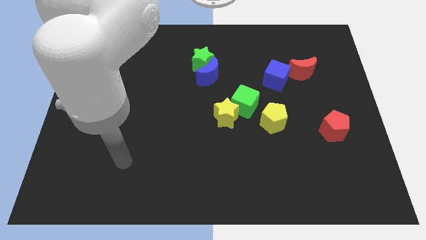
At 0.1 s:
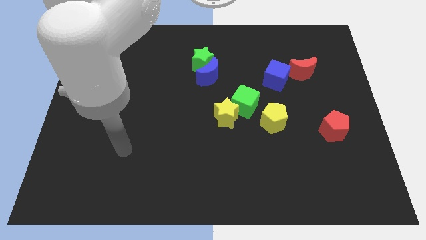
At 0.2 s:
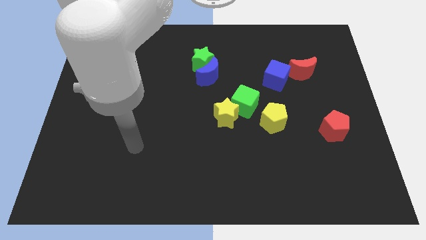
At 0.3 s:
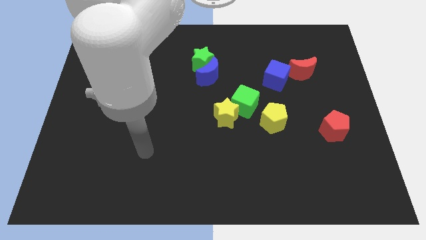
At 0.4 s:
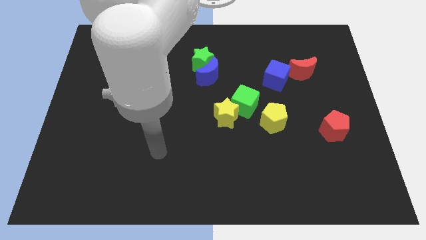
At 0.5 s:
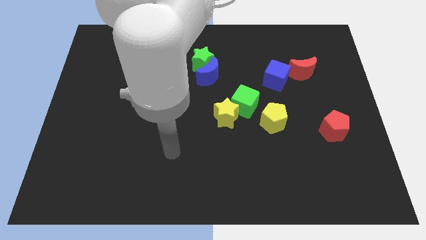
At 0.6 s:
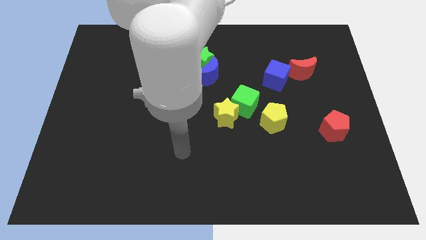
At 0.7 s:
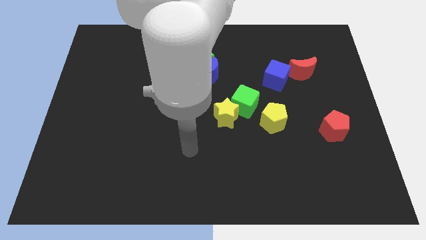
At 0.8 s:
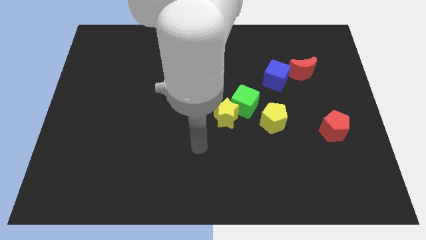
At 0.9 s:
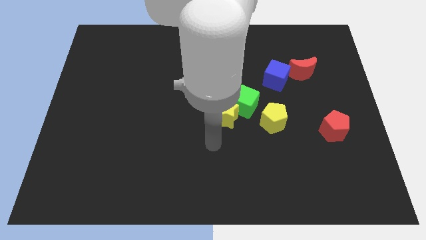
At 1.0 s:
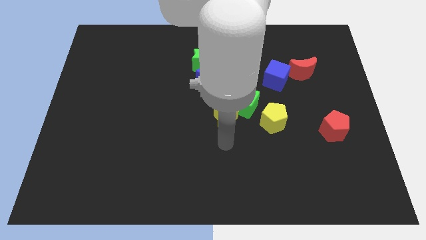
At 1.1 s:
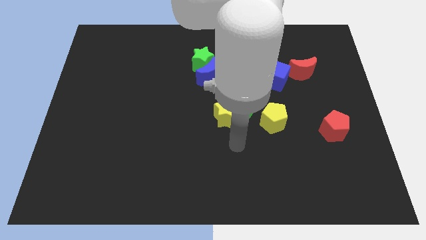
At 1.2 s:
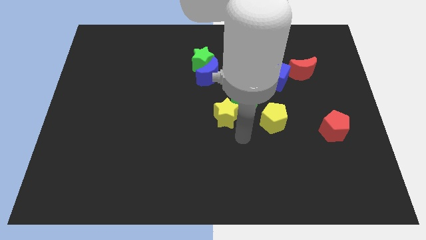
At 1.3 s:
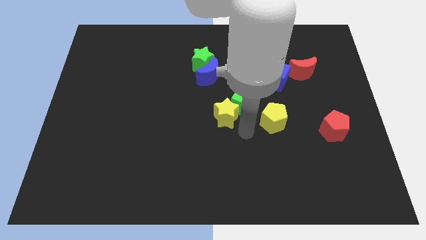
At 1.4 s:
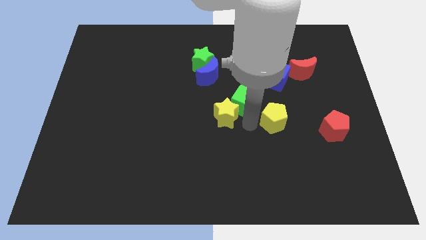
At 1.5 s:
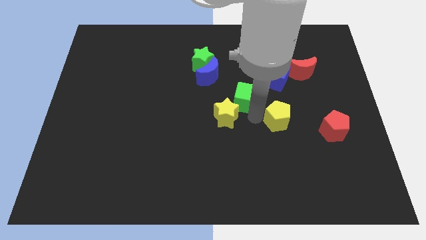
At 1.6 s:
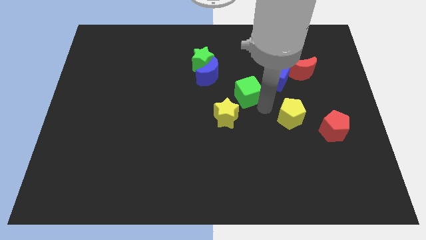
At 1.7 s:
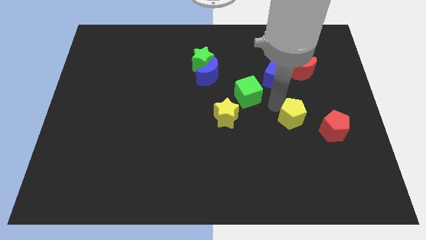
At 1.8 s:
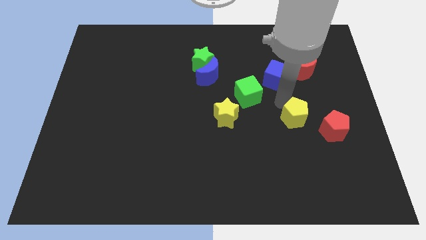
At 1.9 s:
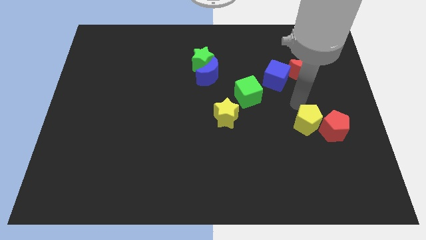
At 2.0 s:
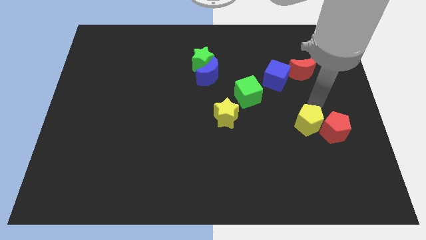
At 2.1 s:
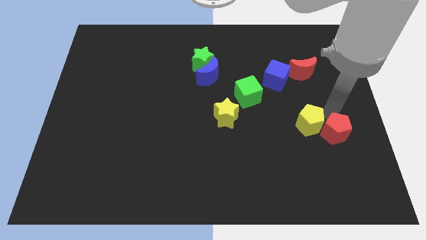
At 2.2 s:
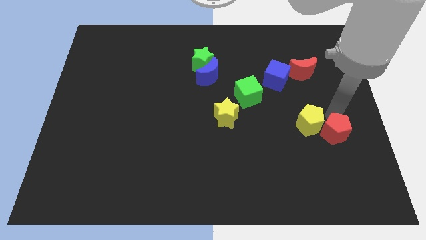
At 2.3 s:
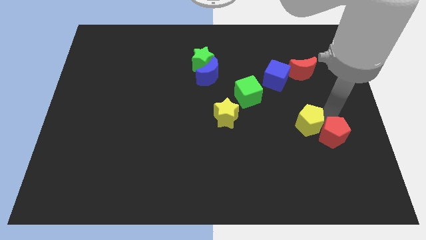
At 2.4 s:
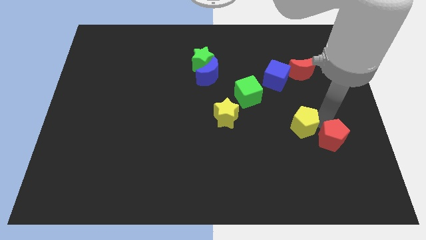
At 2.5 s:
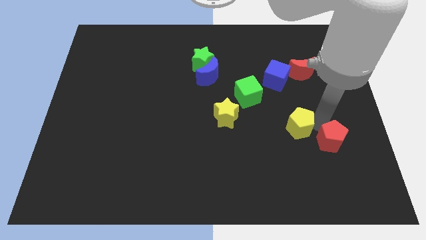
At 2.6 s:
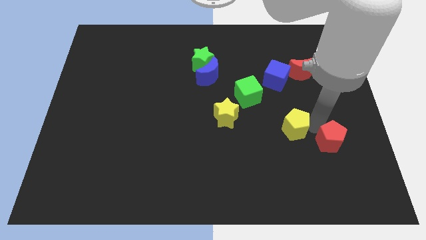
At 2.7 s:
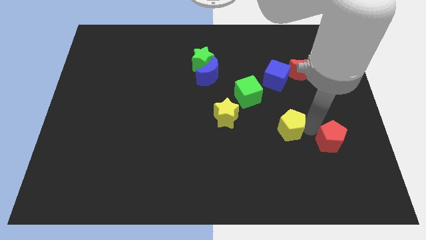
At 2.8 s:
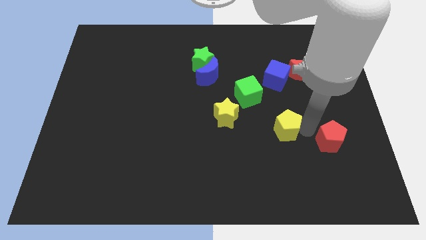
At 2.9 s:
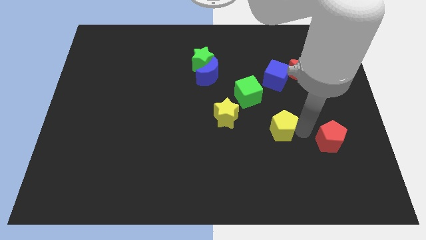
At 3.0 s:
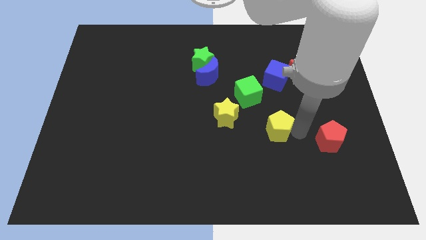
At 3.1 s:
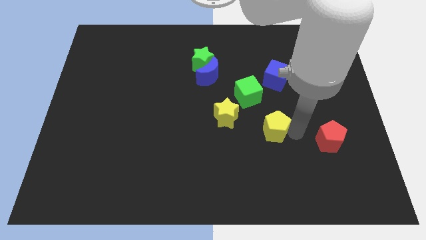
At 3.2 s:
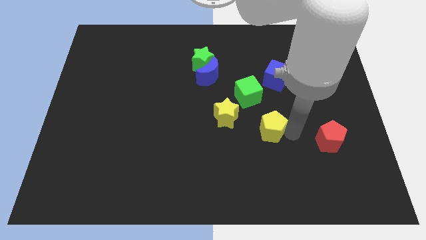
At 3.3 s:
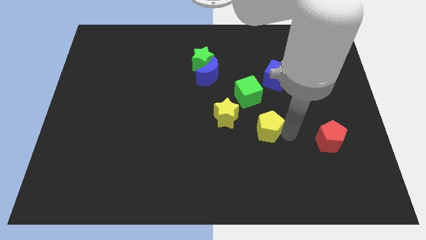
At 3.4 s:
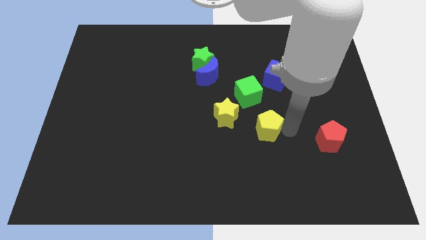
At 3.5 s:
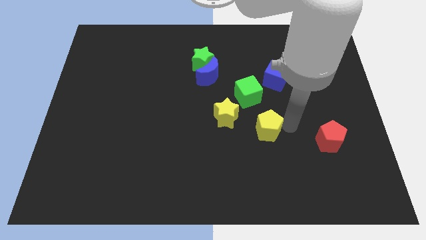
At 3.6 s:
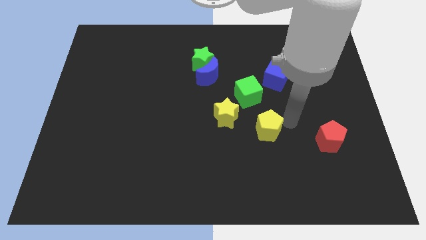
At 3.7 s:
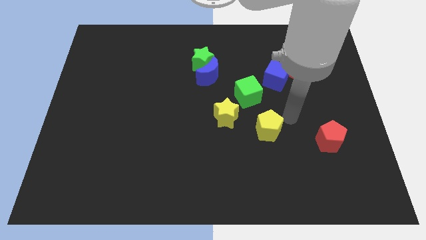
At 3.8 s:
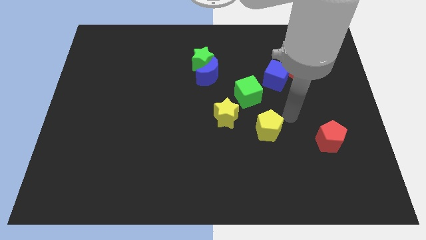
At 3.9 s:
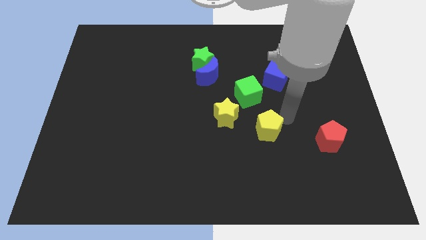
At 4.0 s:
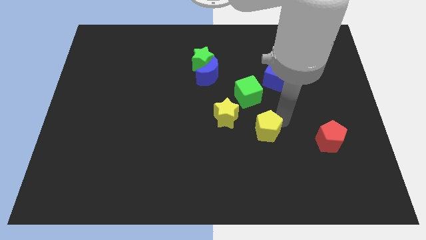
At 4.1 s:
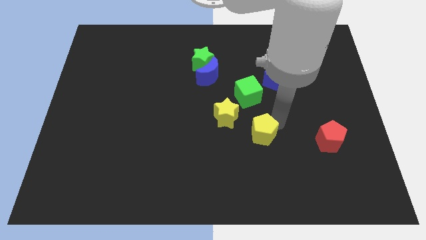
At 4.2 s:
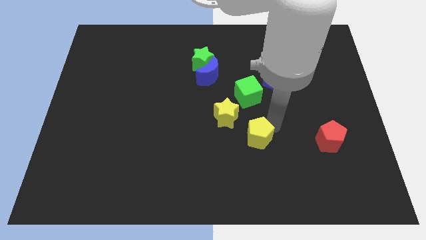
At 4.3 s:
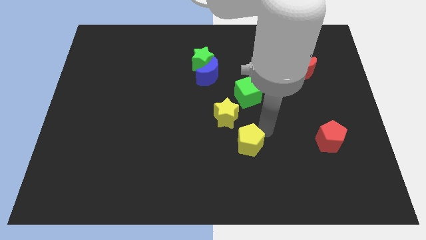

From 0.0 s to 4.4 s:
slightly push the yellow pentagon downwards and to the left

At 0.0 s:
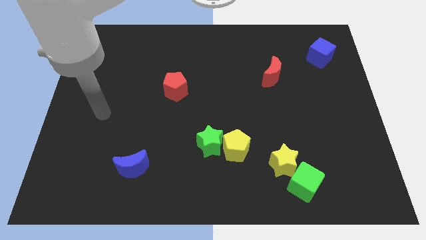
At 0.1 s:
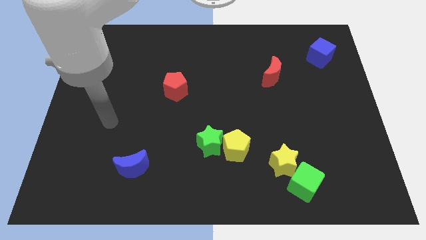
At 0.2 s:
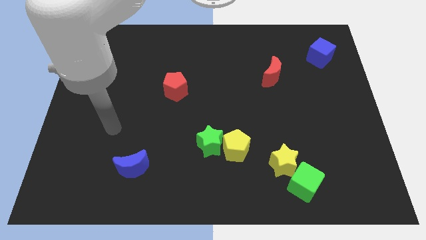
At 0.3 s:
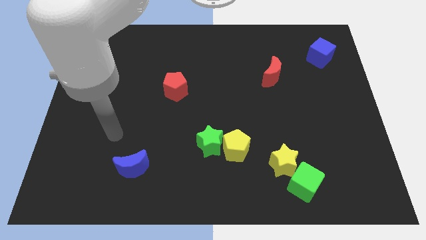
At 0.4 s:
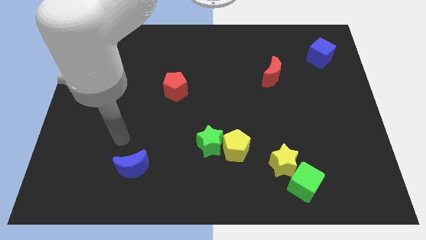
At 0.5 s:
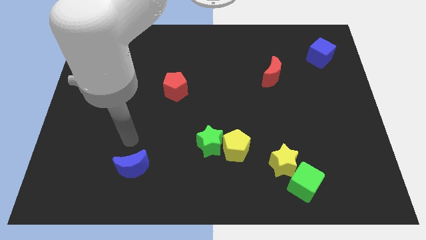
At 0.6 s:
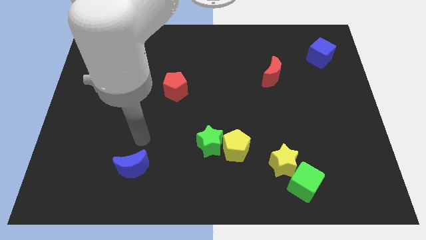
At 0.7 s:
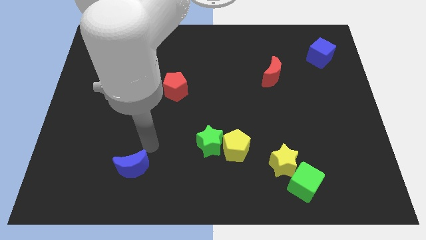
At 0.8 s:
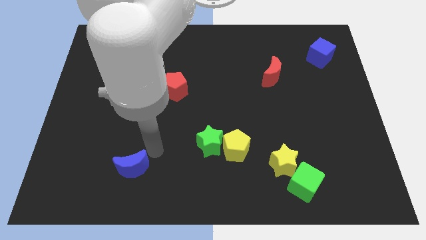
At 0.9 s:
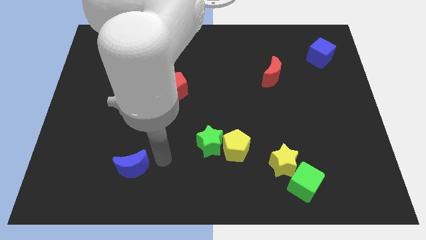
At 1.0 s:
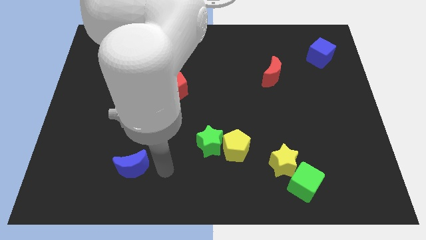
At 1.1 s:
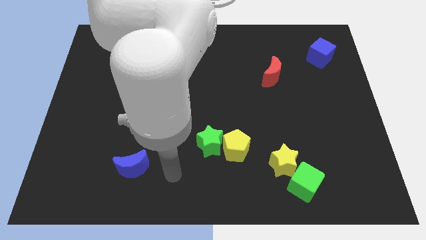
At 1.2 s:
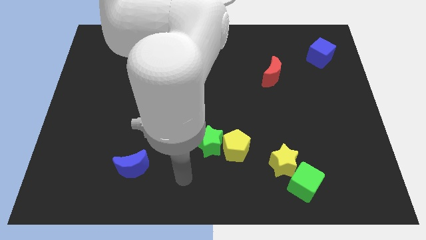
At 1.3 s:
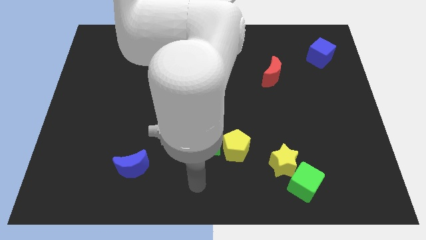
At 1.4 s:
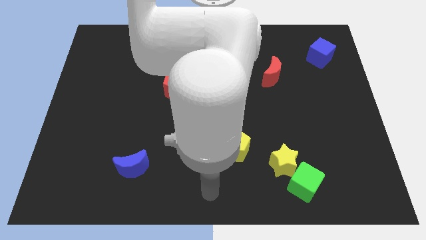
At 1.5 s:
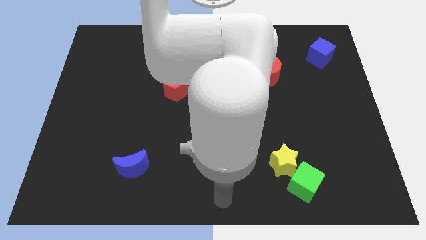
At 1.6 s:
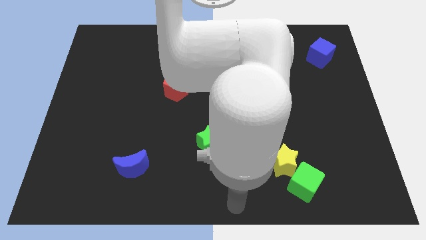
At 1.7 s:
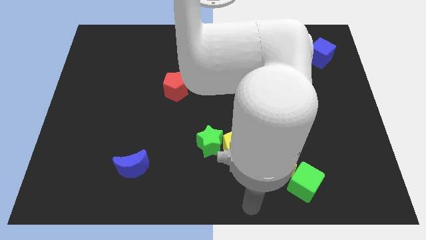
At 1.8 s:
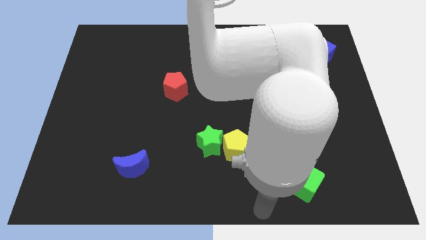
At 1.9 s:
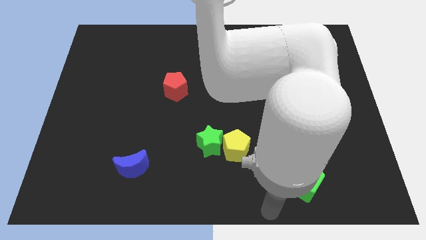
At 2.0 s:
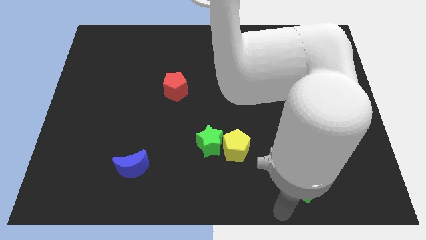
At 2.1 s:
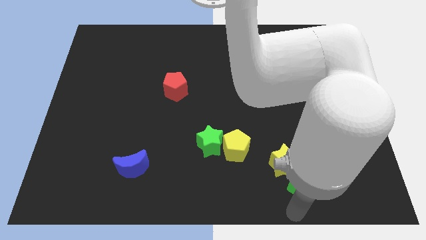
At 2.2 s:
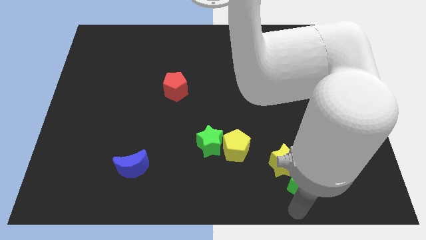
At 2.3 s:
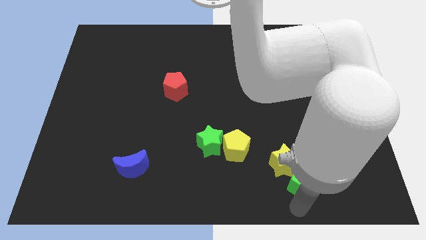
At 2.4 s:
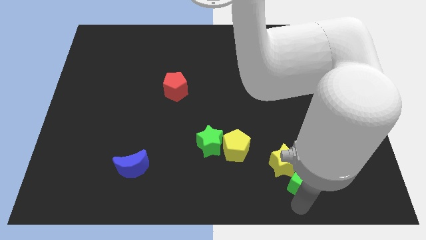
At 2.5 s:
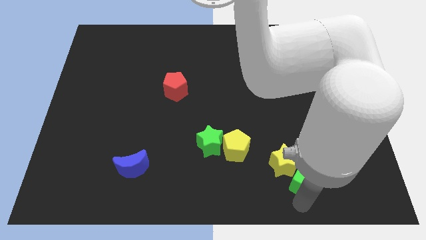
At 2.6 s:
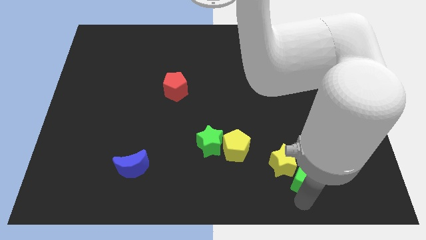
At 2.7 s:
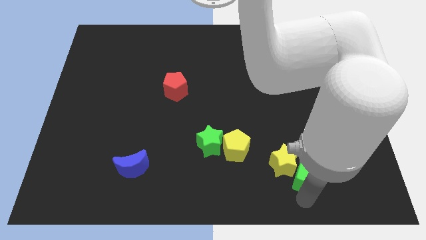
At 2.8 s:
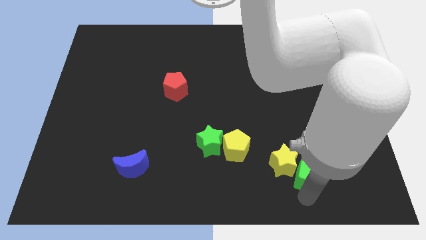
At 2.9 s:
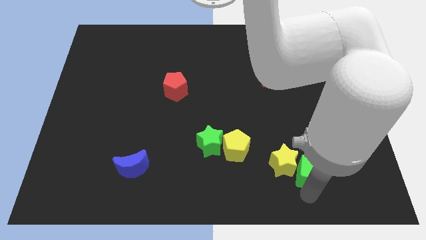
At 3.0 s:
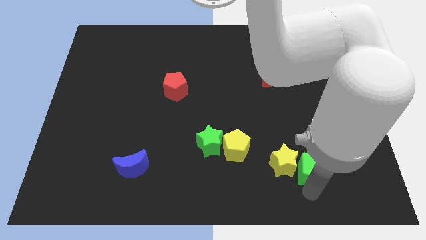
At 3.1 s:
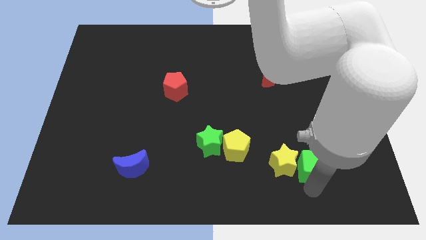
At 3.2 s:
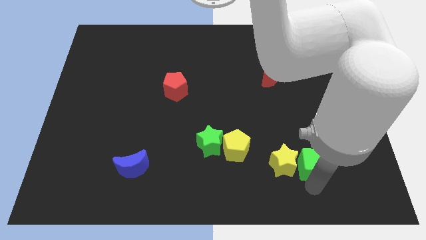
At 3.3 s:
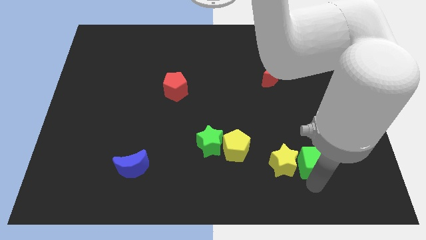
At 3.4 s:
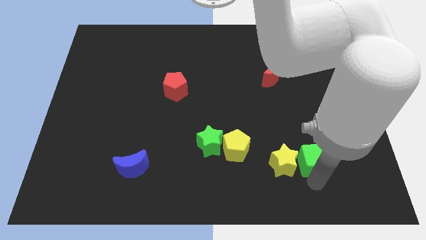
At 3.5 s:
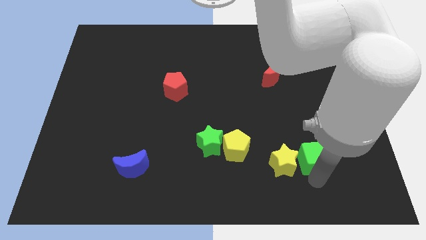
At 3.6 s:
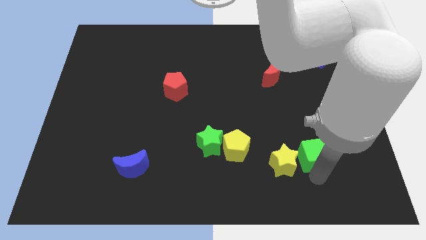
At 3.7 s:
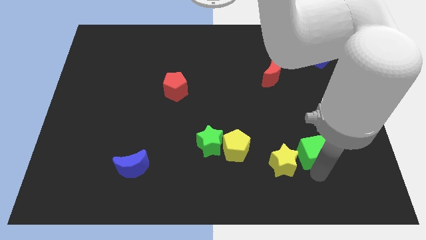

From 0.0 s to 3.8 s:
slightly push the green cube up
